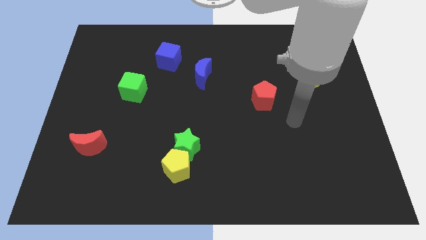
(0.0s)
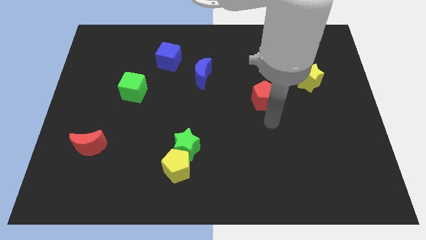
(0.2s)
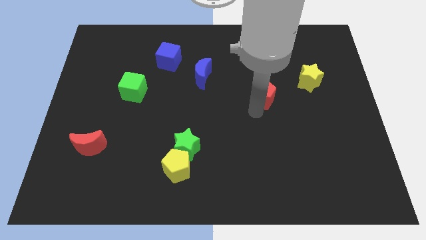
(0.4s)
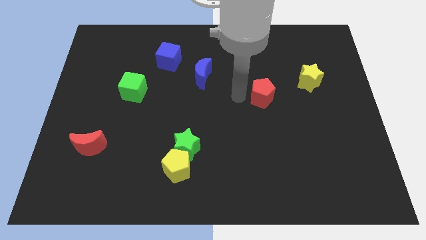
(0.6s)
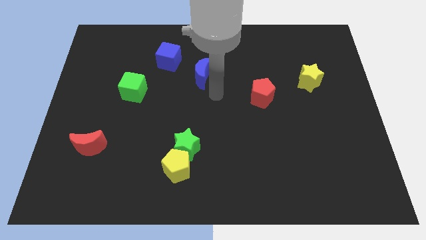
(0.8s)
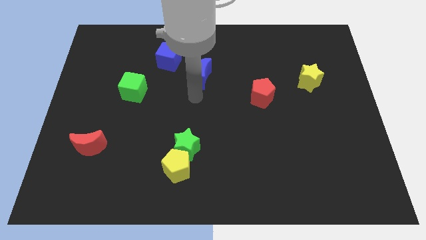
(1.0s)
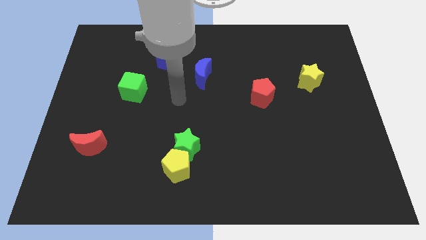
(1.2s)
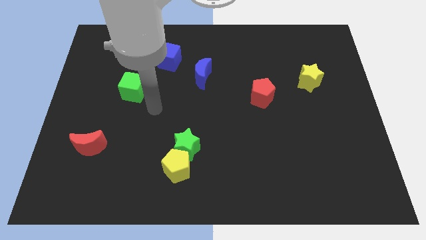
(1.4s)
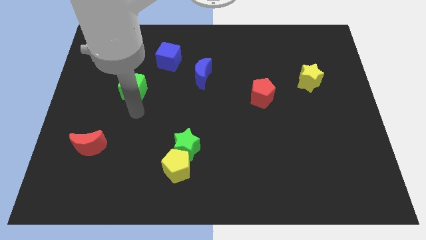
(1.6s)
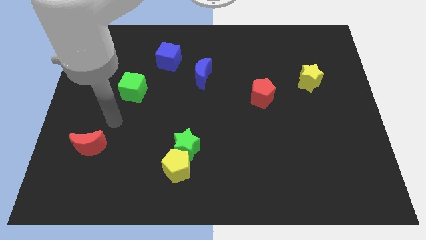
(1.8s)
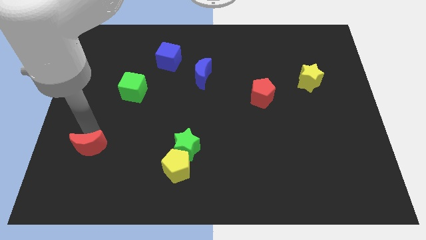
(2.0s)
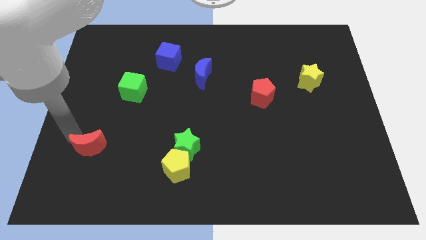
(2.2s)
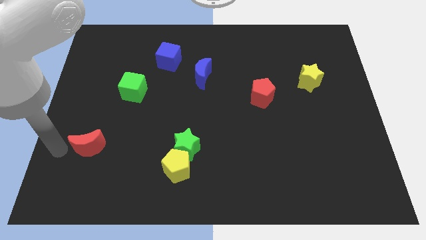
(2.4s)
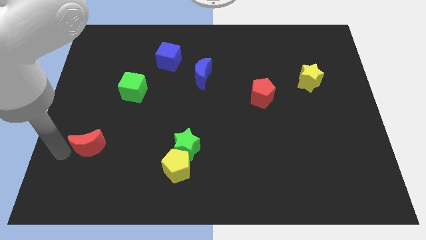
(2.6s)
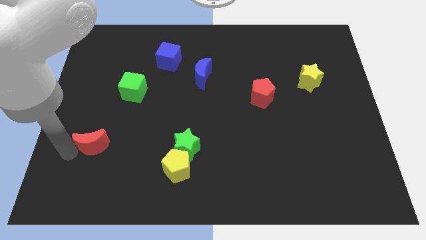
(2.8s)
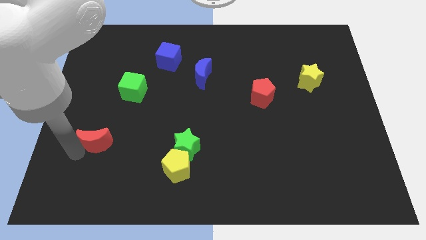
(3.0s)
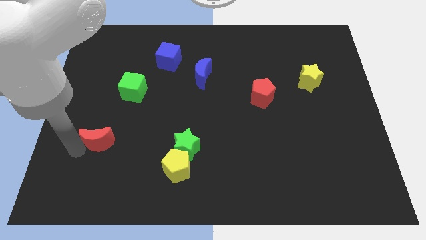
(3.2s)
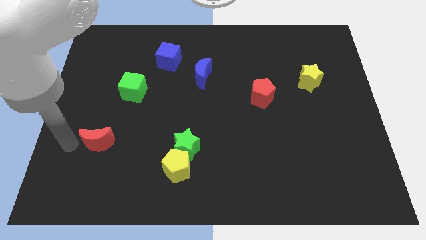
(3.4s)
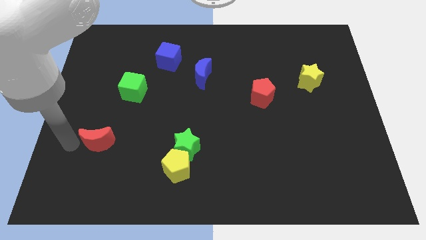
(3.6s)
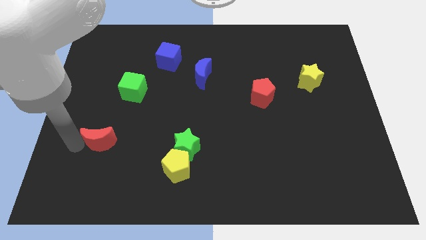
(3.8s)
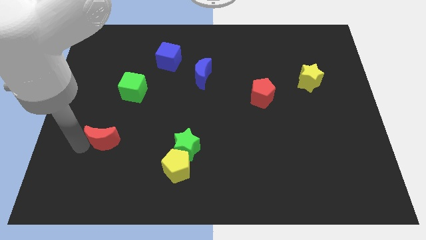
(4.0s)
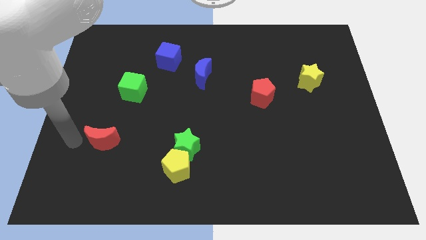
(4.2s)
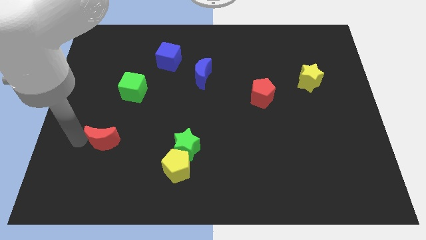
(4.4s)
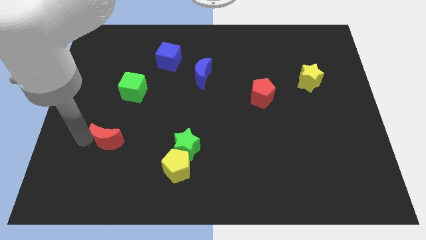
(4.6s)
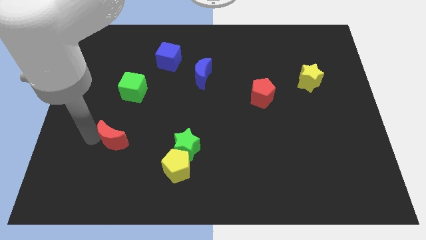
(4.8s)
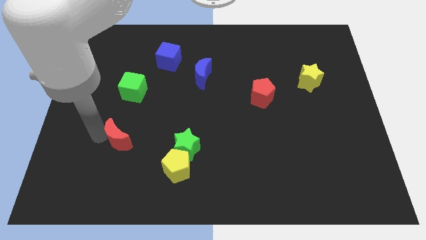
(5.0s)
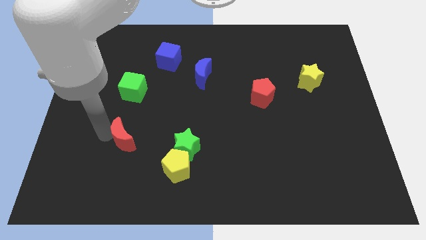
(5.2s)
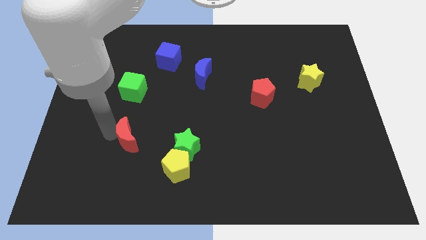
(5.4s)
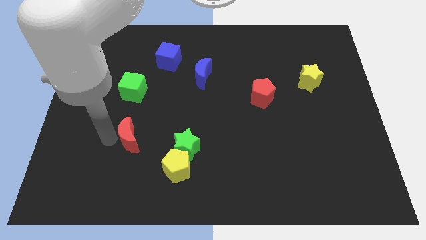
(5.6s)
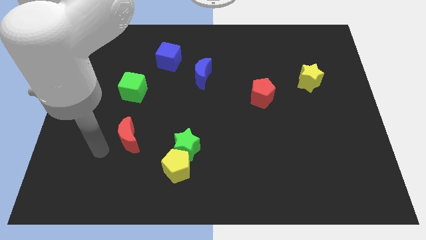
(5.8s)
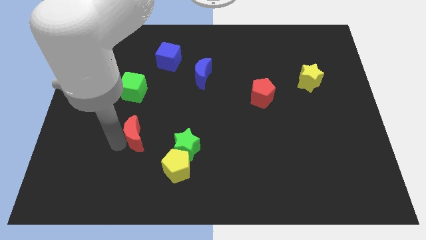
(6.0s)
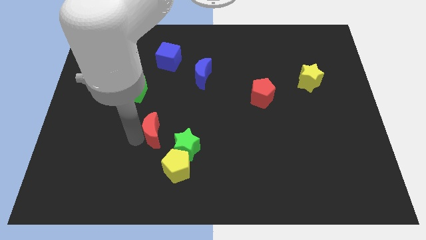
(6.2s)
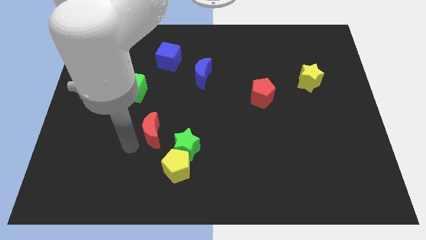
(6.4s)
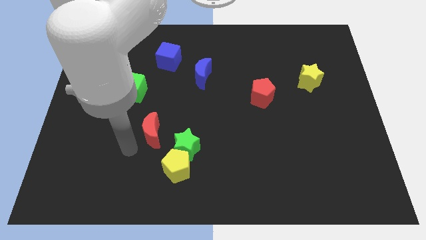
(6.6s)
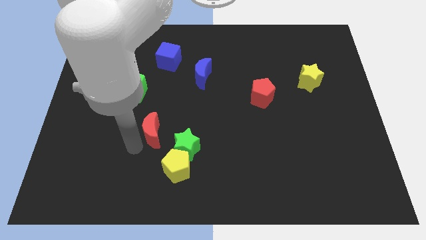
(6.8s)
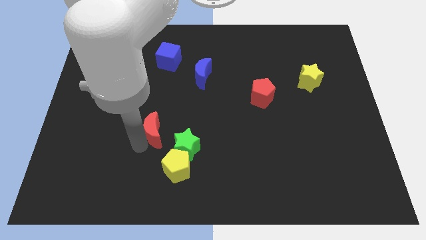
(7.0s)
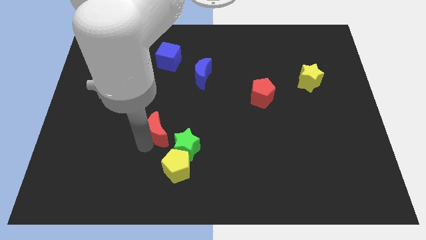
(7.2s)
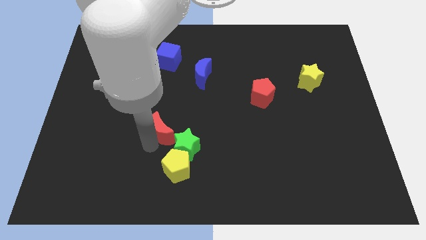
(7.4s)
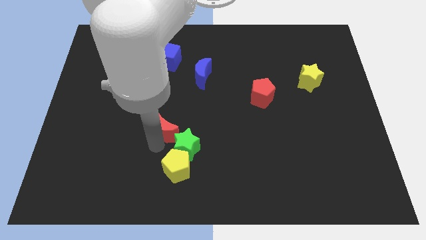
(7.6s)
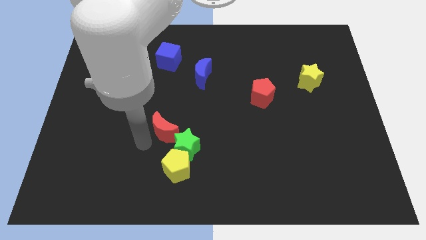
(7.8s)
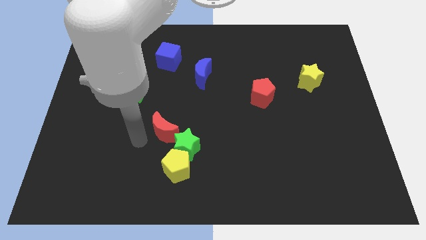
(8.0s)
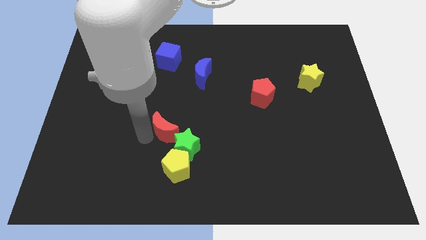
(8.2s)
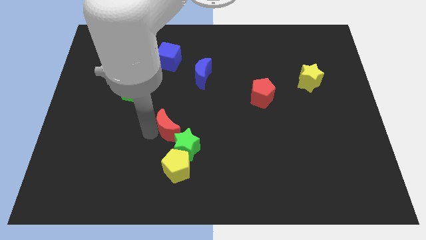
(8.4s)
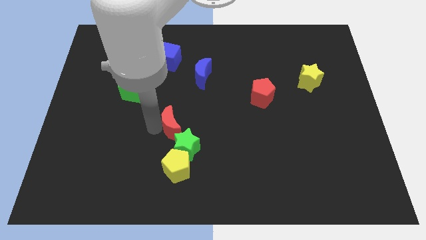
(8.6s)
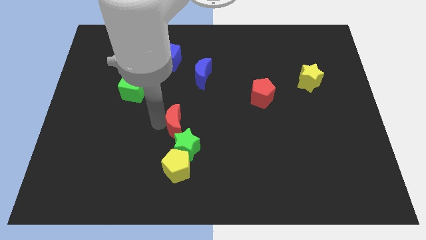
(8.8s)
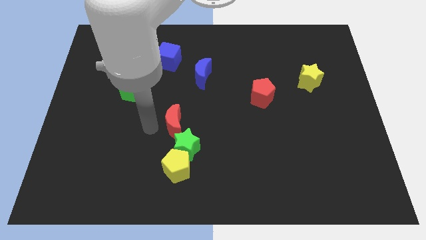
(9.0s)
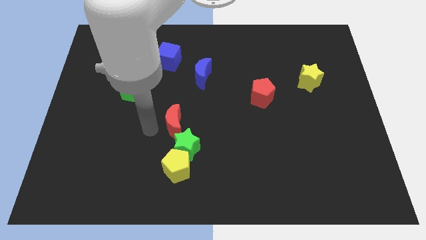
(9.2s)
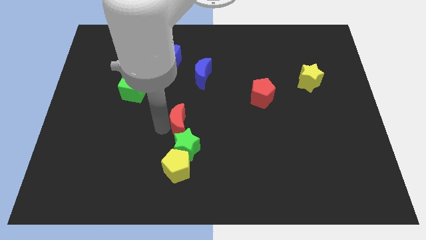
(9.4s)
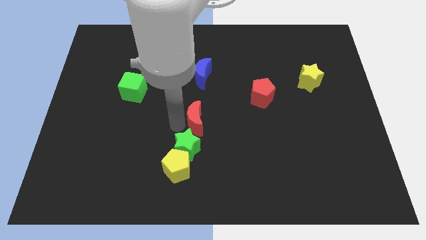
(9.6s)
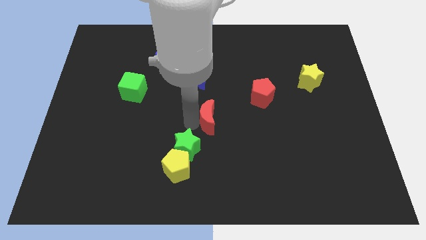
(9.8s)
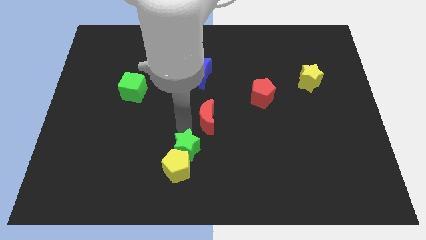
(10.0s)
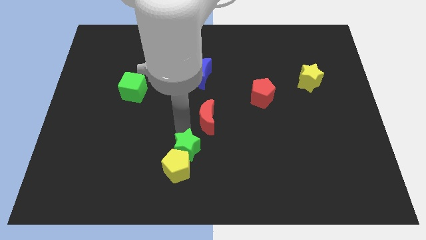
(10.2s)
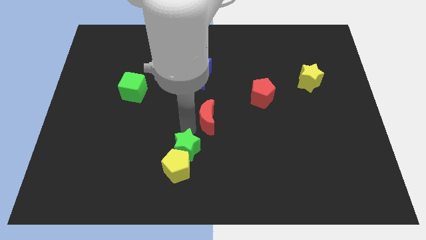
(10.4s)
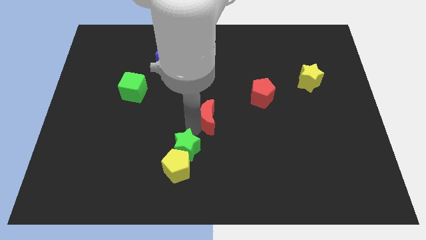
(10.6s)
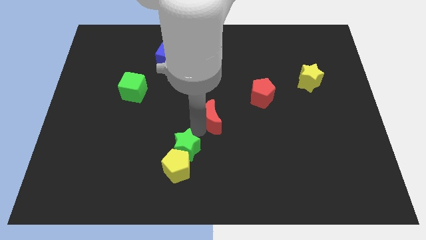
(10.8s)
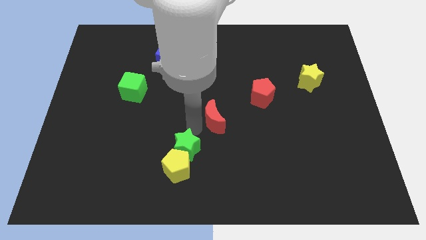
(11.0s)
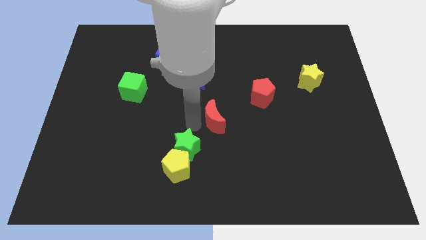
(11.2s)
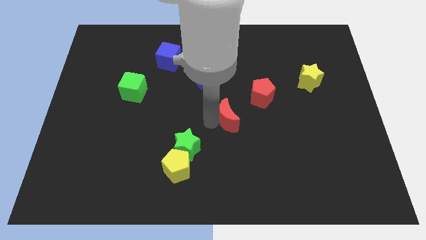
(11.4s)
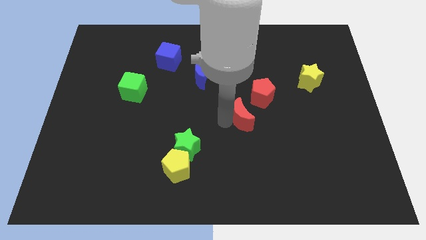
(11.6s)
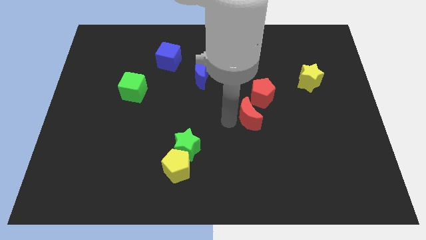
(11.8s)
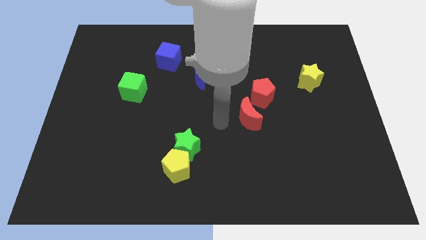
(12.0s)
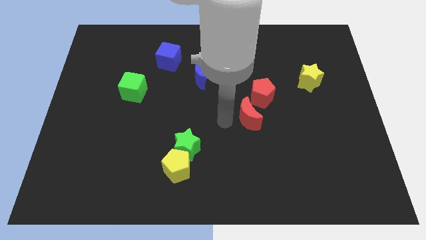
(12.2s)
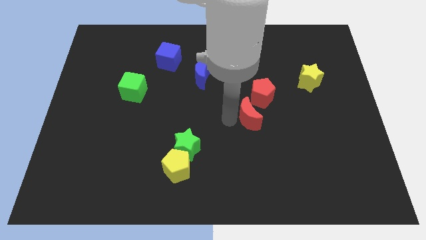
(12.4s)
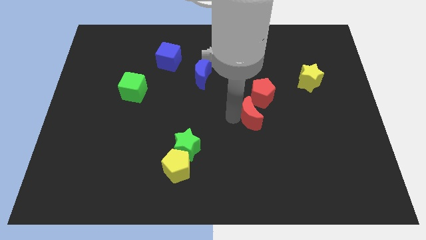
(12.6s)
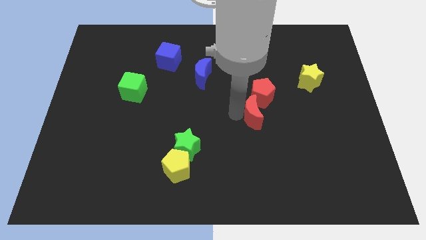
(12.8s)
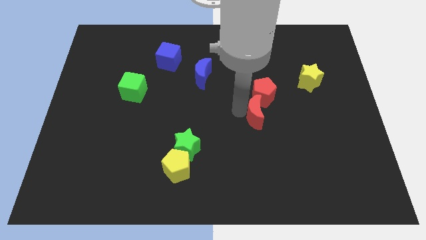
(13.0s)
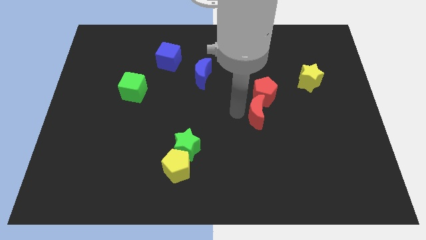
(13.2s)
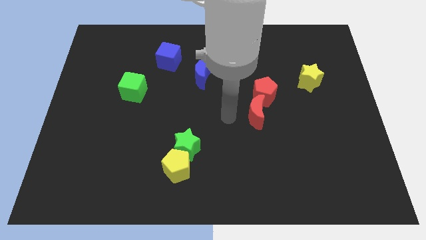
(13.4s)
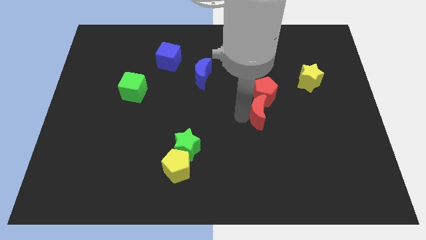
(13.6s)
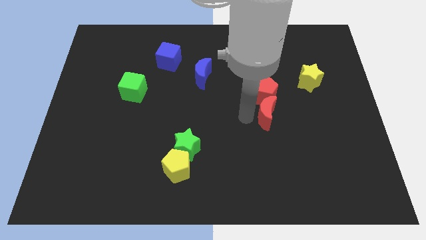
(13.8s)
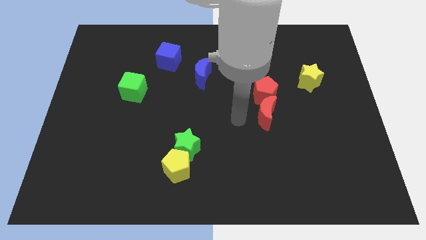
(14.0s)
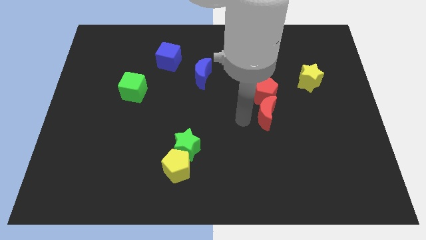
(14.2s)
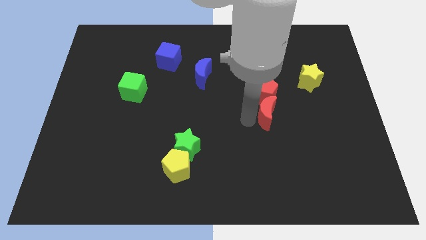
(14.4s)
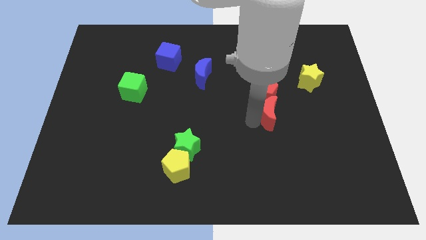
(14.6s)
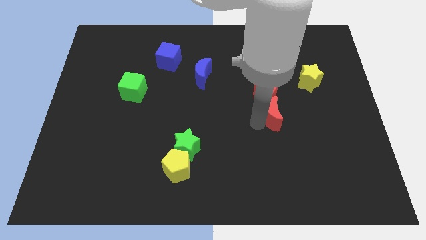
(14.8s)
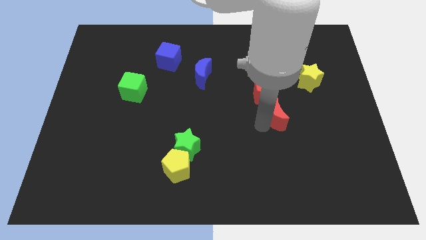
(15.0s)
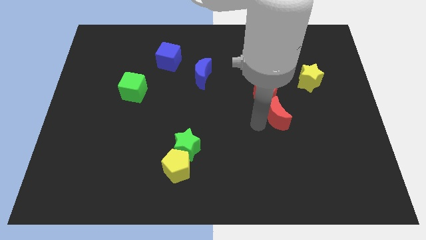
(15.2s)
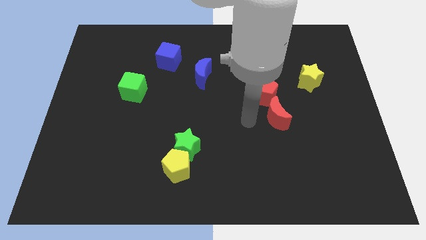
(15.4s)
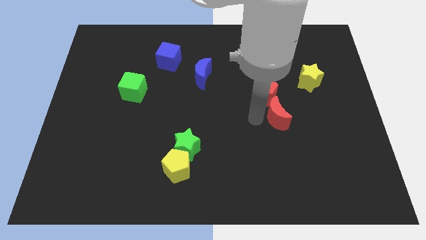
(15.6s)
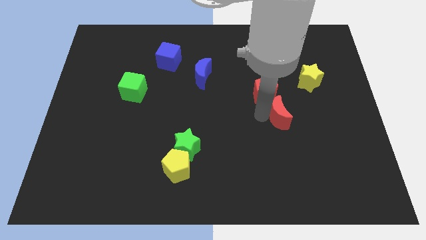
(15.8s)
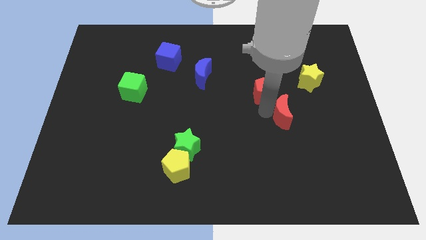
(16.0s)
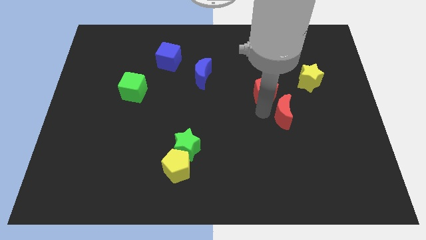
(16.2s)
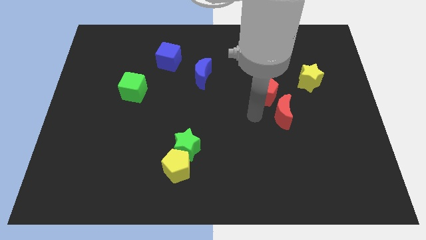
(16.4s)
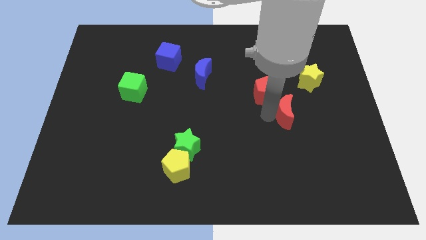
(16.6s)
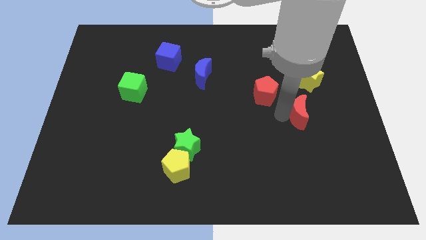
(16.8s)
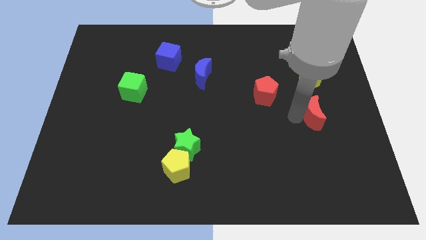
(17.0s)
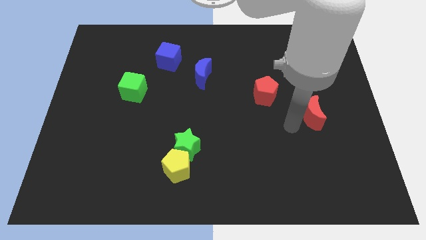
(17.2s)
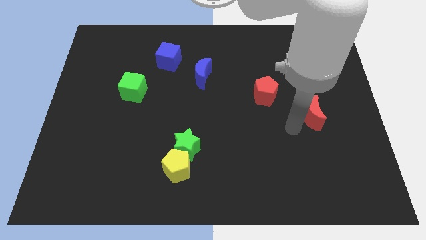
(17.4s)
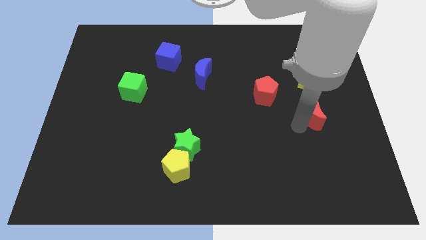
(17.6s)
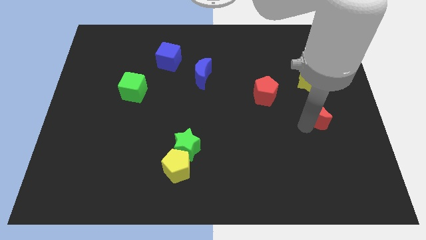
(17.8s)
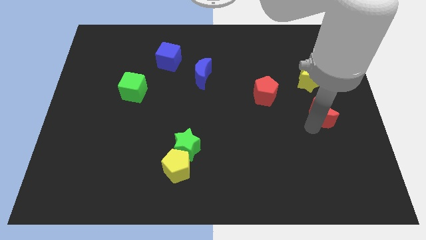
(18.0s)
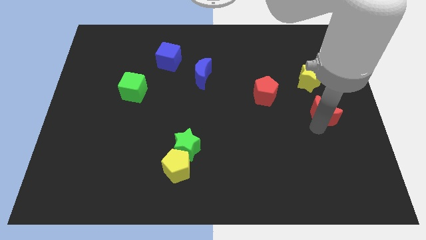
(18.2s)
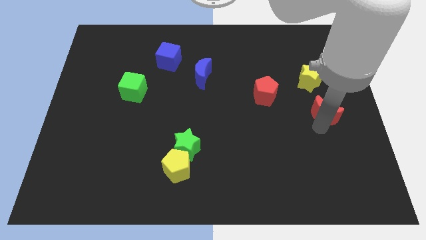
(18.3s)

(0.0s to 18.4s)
move the red moon to the right side of the board
